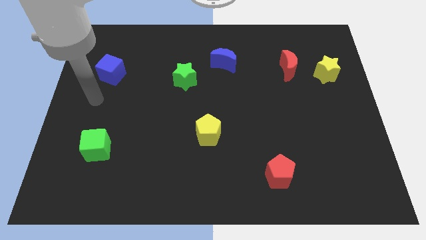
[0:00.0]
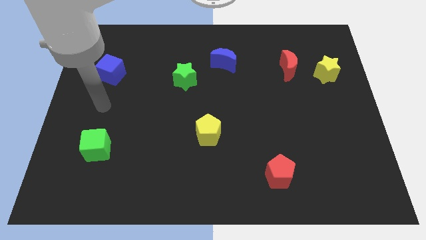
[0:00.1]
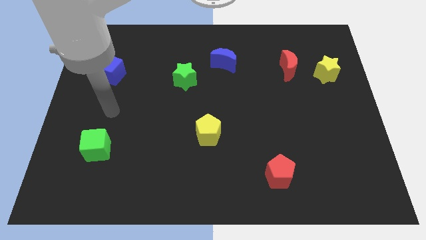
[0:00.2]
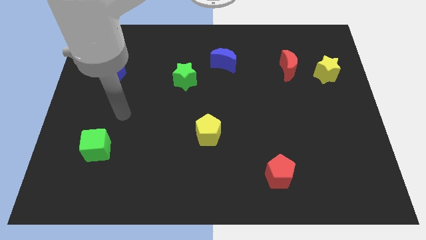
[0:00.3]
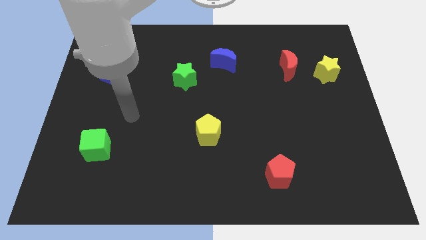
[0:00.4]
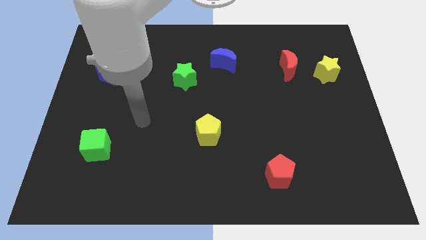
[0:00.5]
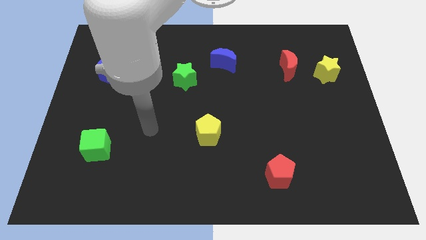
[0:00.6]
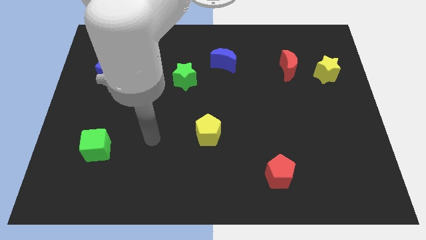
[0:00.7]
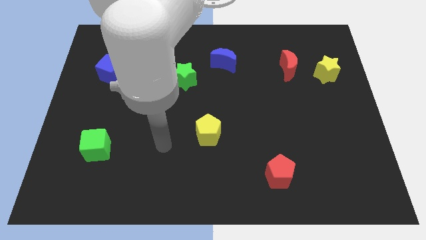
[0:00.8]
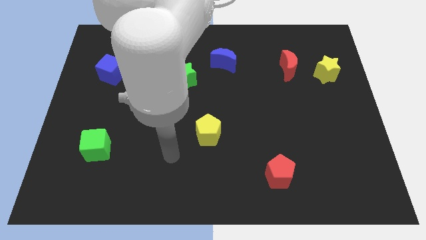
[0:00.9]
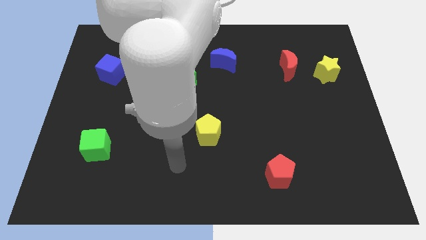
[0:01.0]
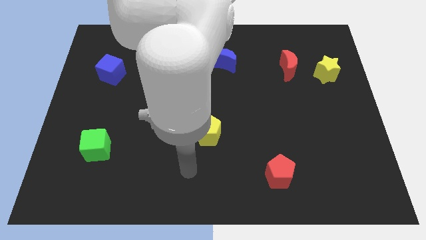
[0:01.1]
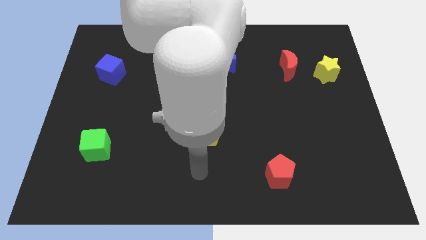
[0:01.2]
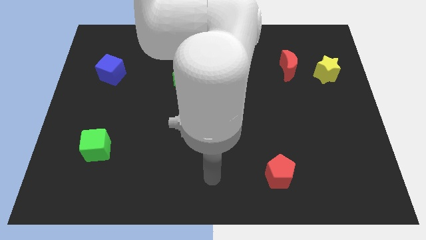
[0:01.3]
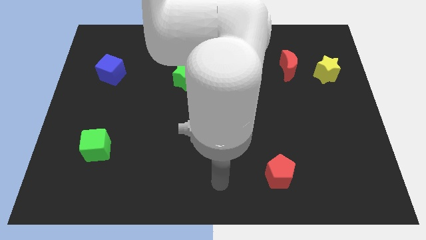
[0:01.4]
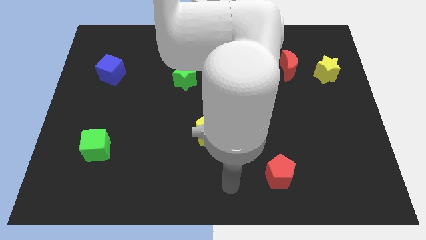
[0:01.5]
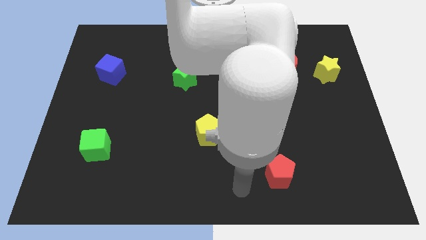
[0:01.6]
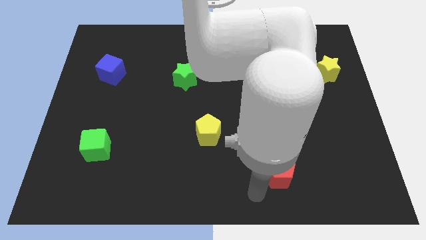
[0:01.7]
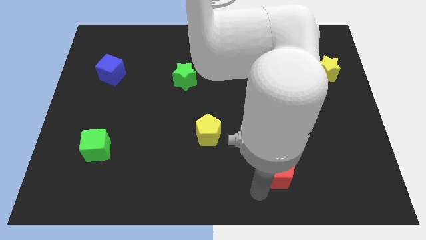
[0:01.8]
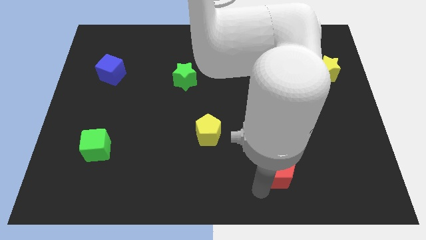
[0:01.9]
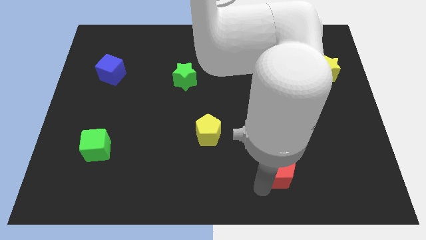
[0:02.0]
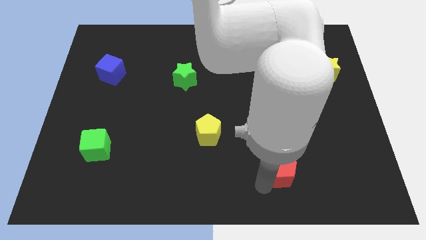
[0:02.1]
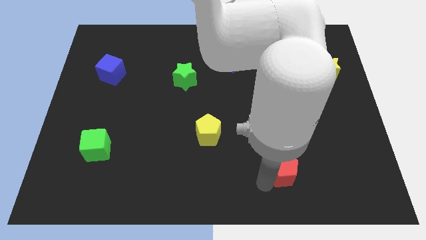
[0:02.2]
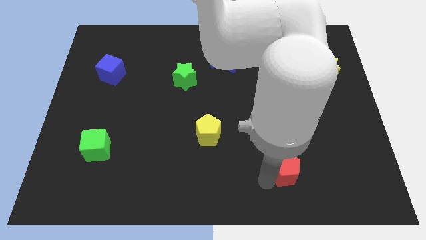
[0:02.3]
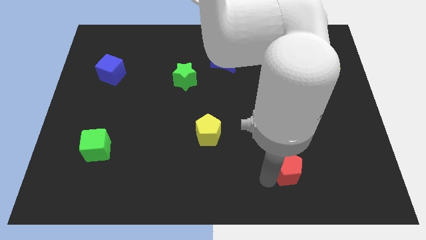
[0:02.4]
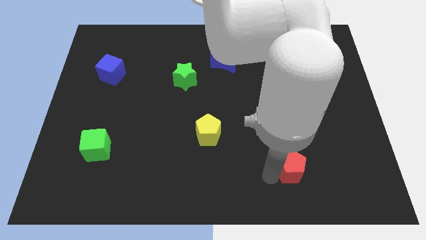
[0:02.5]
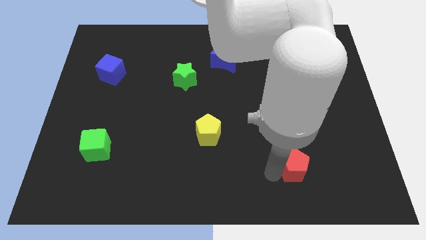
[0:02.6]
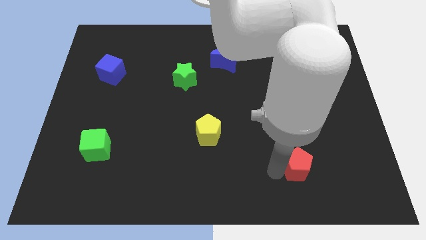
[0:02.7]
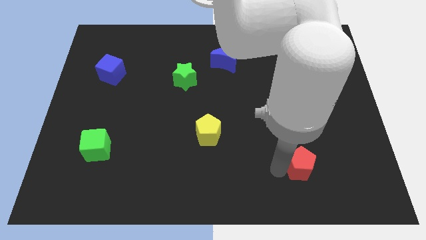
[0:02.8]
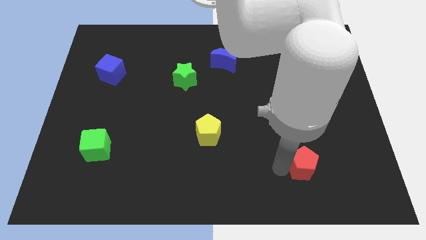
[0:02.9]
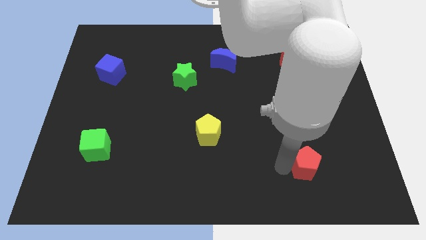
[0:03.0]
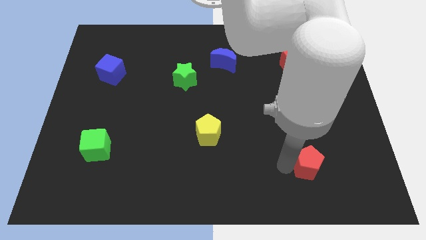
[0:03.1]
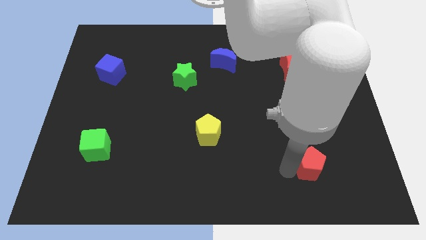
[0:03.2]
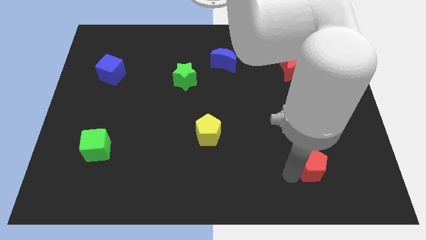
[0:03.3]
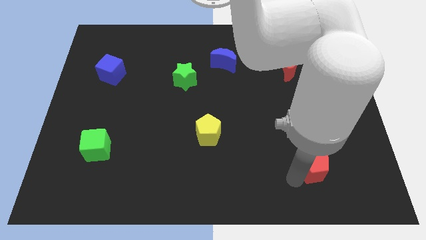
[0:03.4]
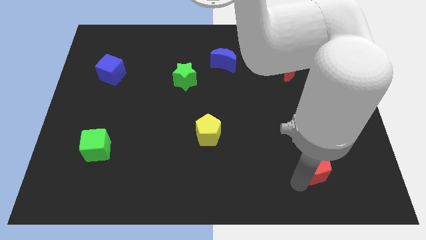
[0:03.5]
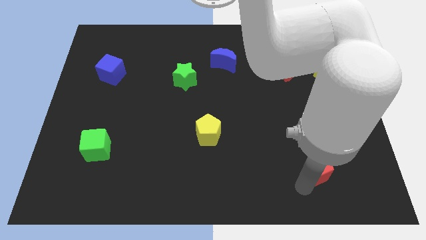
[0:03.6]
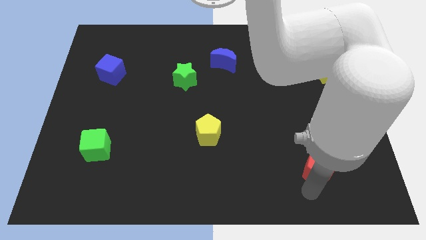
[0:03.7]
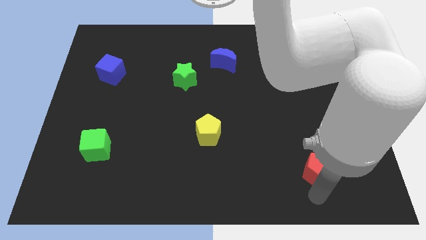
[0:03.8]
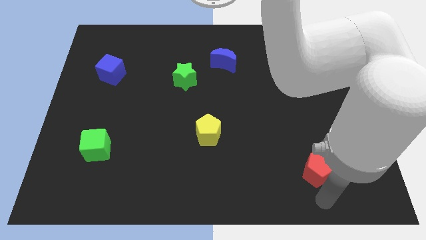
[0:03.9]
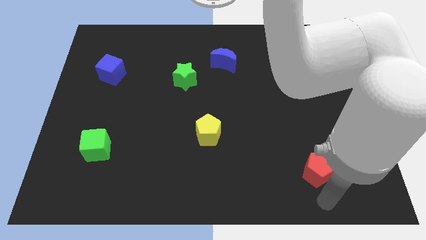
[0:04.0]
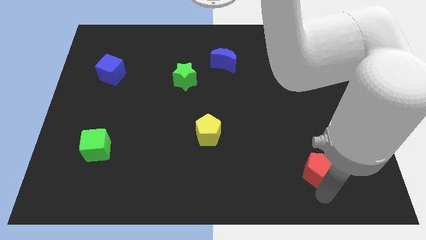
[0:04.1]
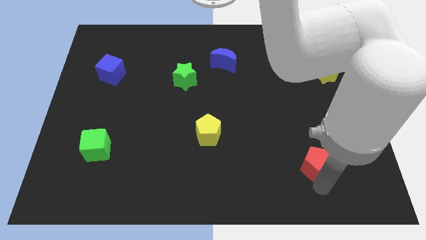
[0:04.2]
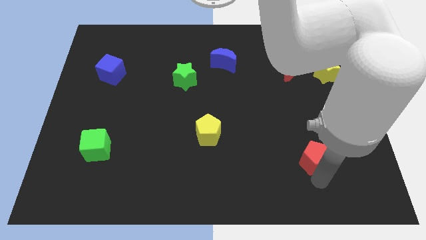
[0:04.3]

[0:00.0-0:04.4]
push the red pentagon up and right a little bit

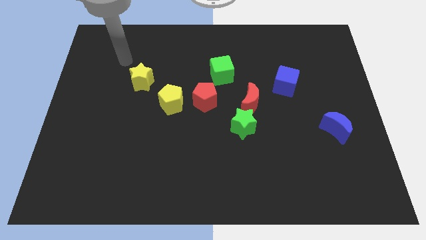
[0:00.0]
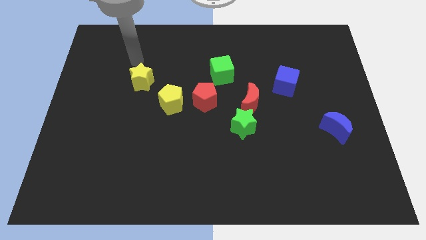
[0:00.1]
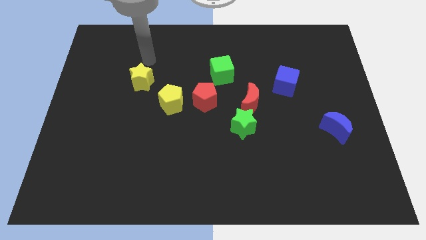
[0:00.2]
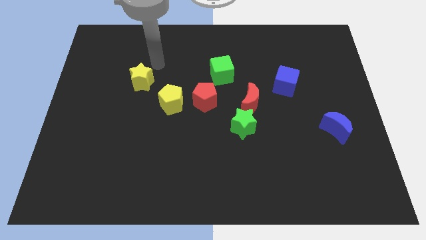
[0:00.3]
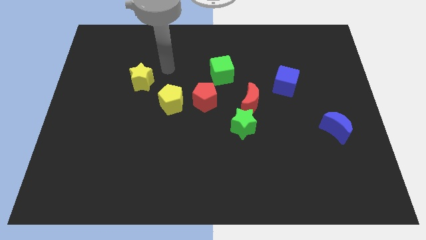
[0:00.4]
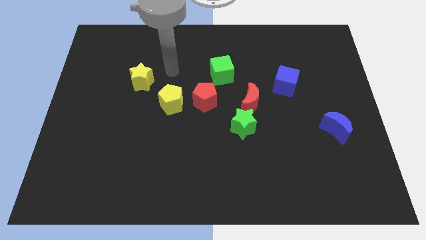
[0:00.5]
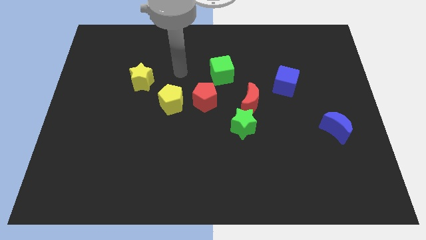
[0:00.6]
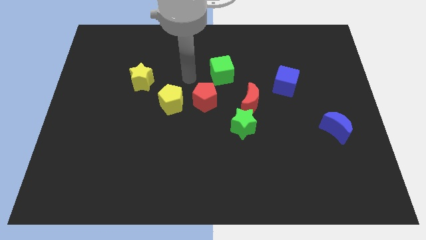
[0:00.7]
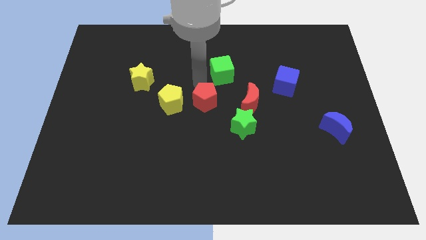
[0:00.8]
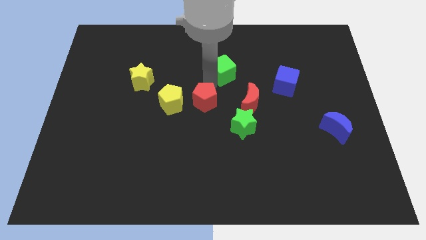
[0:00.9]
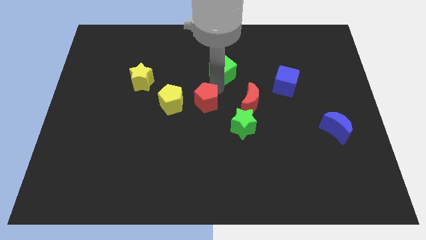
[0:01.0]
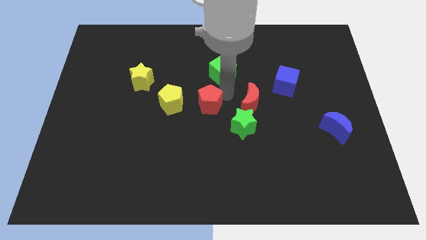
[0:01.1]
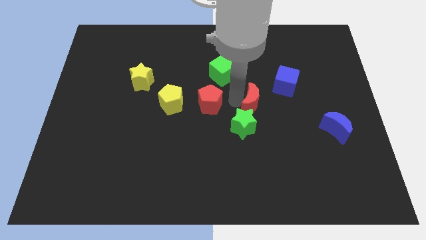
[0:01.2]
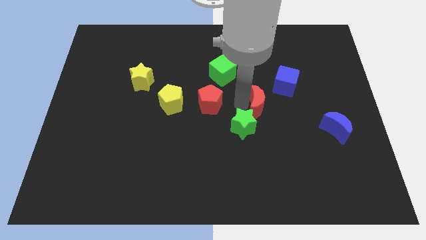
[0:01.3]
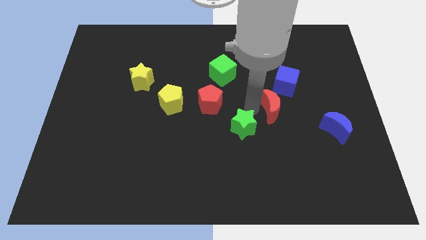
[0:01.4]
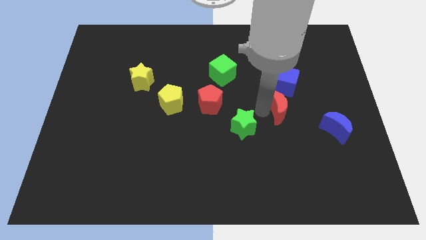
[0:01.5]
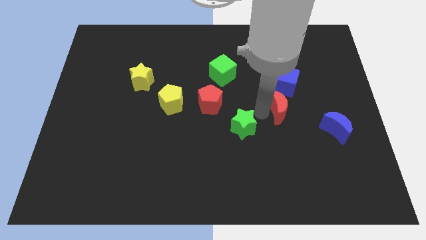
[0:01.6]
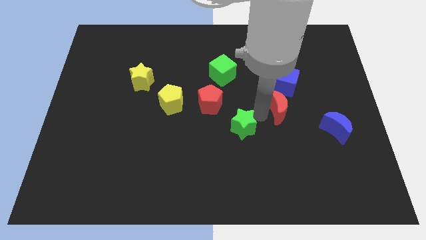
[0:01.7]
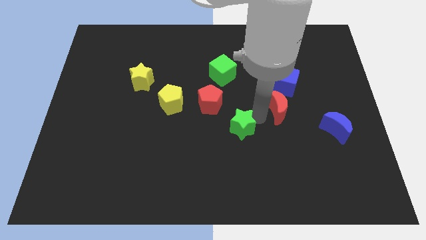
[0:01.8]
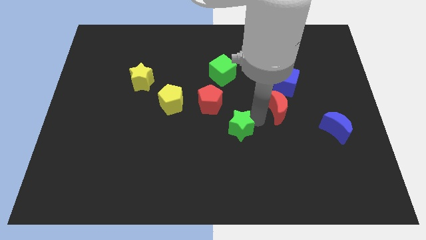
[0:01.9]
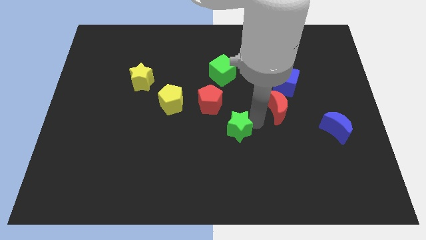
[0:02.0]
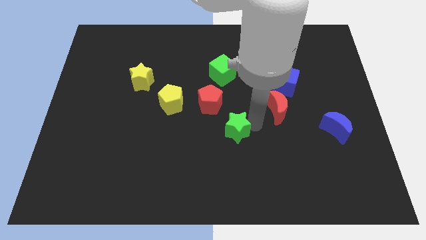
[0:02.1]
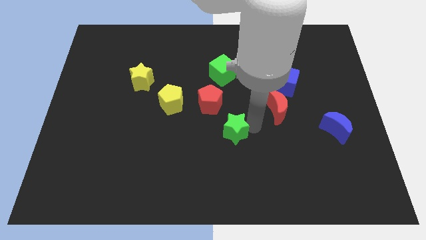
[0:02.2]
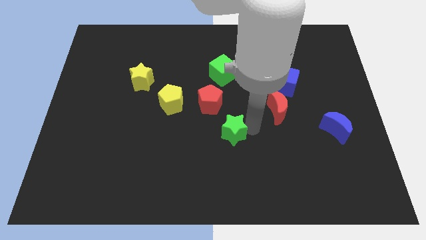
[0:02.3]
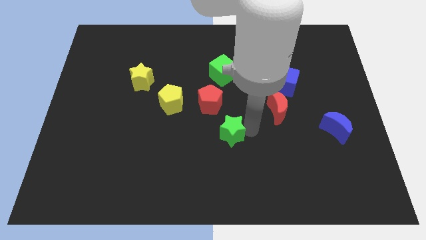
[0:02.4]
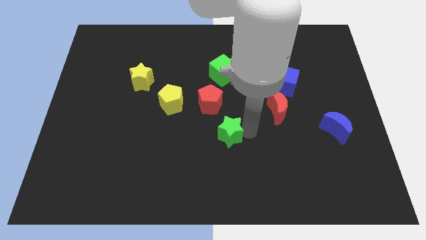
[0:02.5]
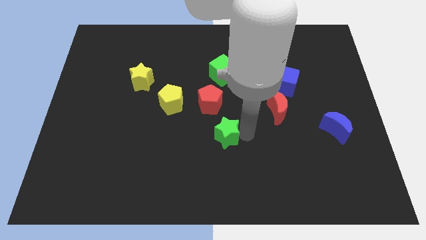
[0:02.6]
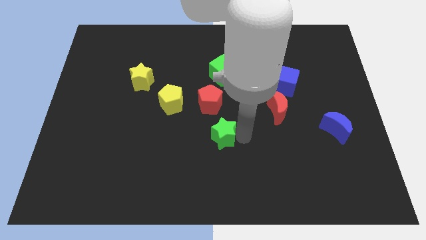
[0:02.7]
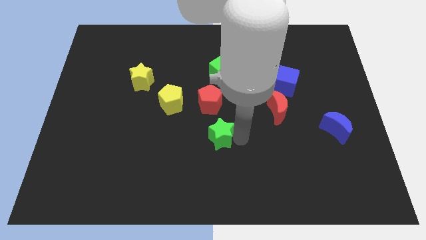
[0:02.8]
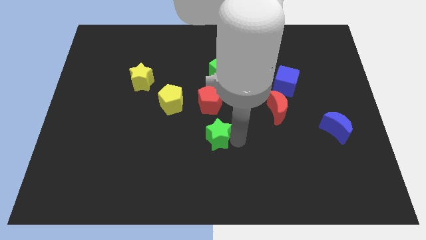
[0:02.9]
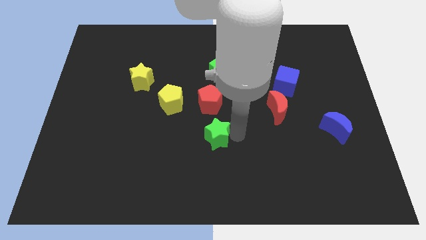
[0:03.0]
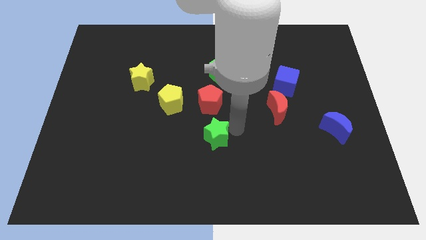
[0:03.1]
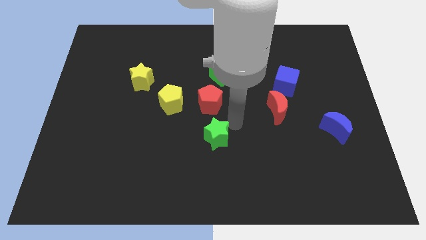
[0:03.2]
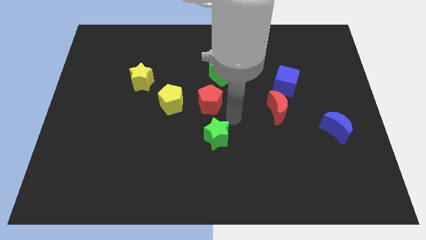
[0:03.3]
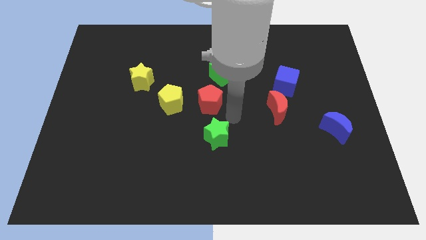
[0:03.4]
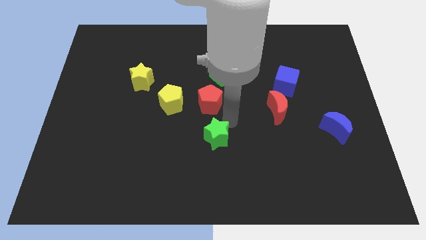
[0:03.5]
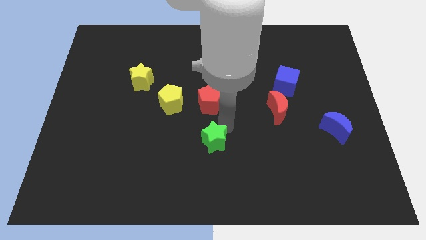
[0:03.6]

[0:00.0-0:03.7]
move the green star a bit diagonally down and left

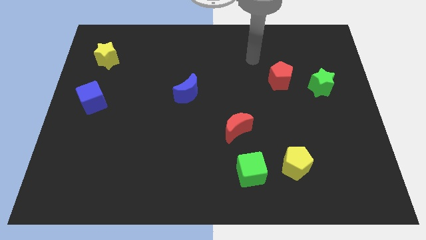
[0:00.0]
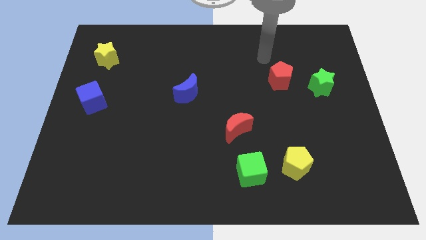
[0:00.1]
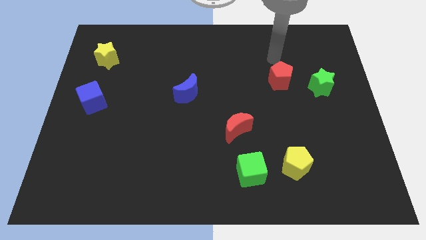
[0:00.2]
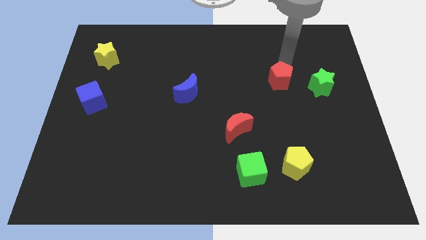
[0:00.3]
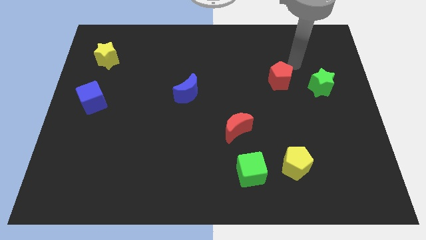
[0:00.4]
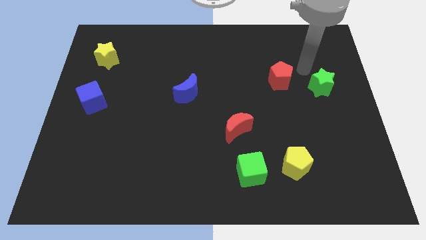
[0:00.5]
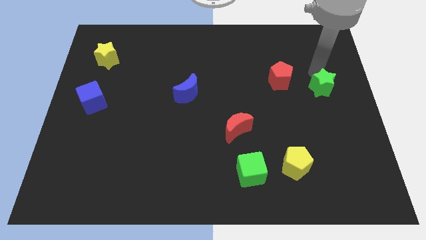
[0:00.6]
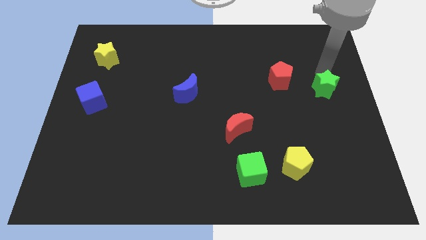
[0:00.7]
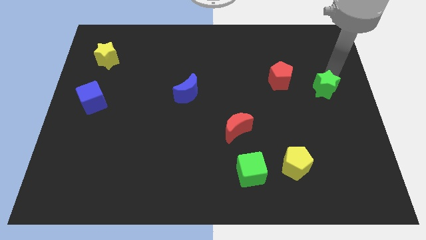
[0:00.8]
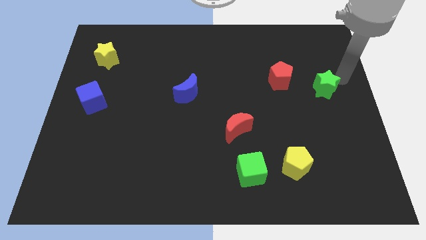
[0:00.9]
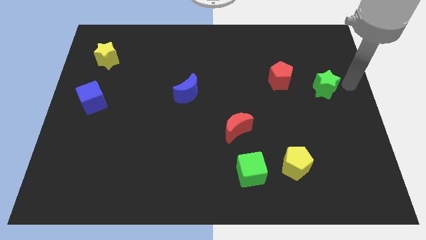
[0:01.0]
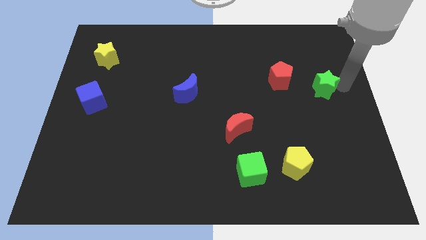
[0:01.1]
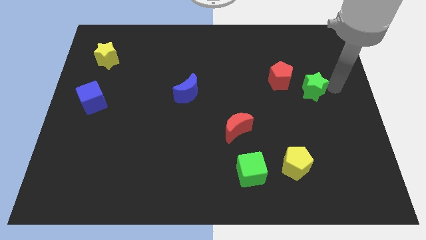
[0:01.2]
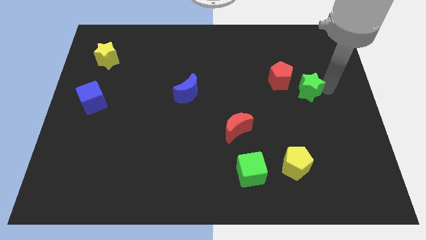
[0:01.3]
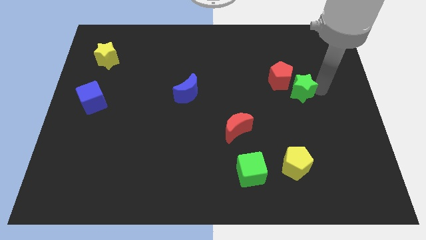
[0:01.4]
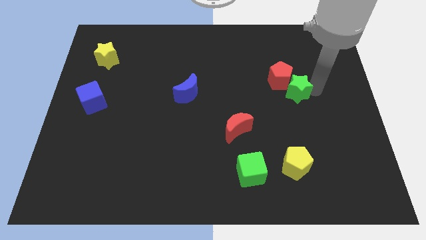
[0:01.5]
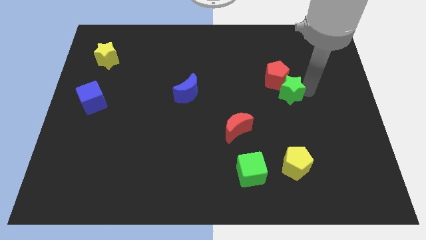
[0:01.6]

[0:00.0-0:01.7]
slide the green star slightly left
